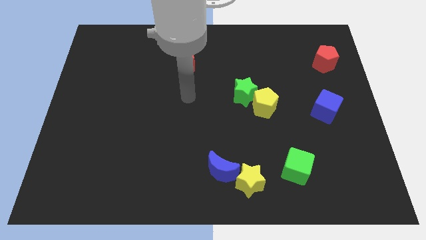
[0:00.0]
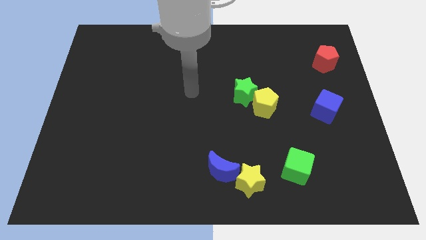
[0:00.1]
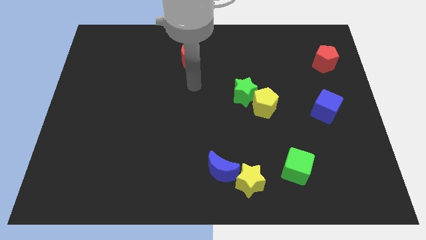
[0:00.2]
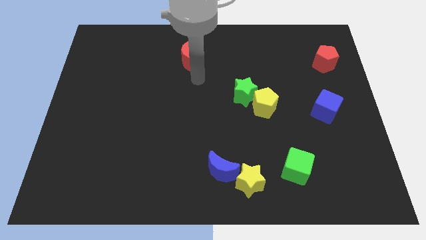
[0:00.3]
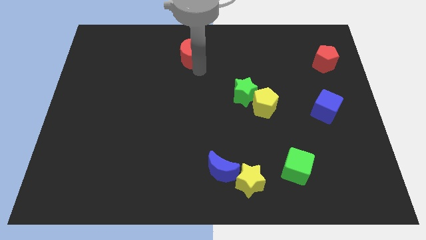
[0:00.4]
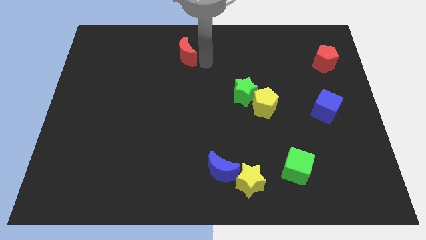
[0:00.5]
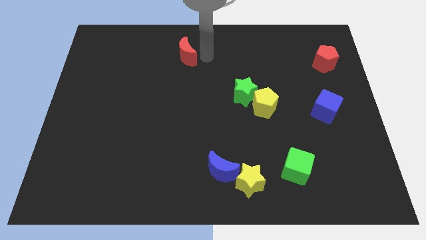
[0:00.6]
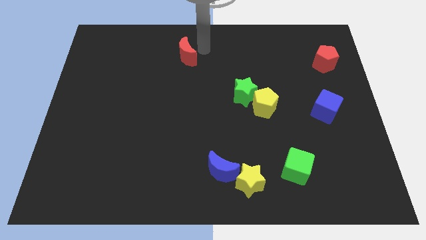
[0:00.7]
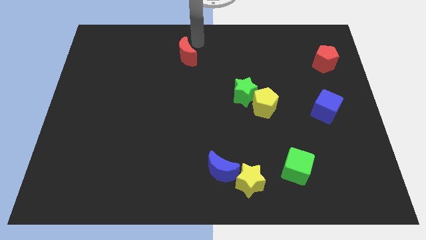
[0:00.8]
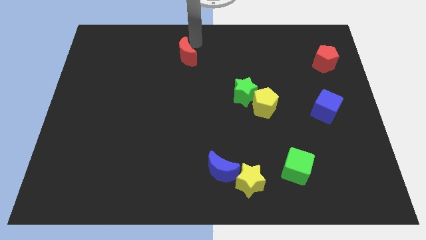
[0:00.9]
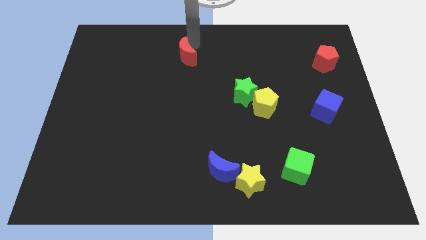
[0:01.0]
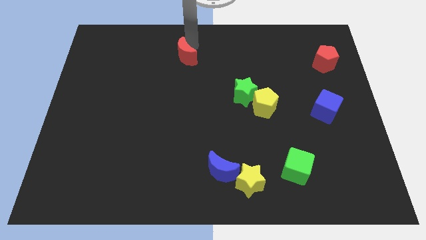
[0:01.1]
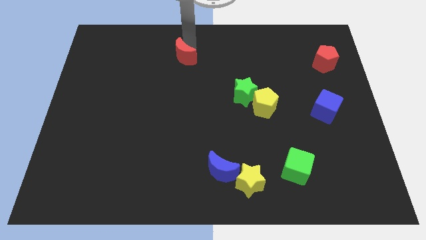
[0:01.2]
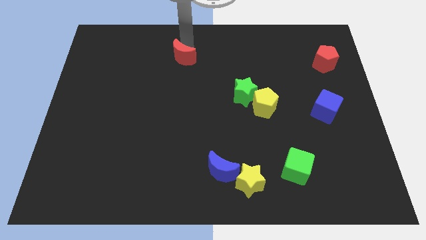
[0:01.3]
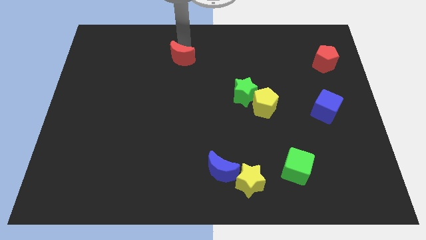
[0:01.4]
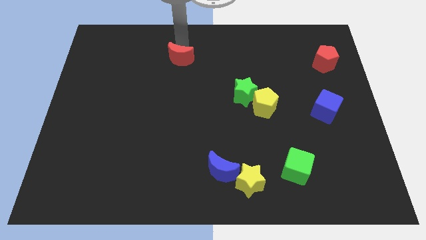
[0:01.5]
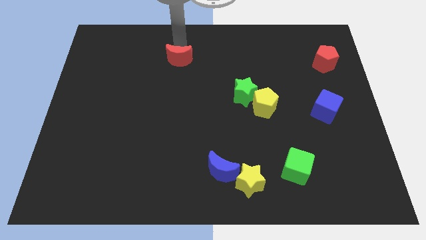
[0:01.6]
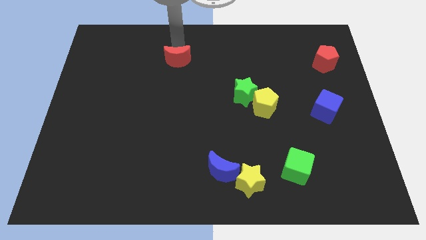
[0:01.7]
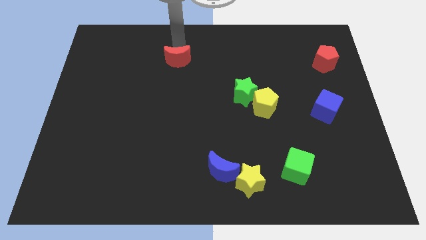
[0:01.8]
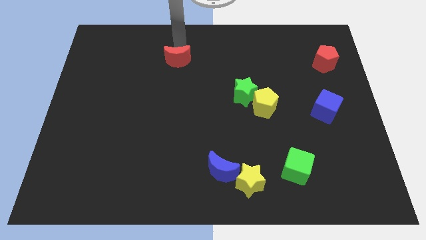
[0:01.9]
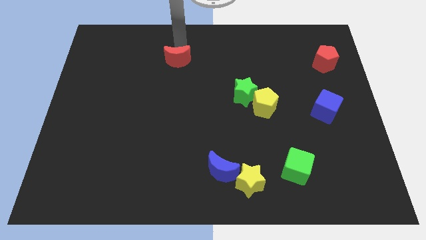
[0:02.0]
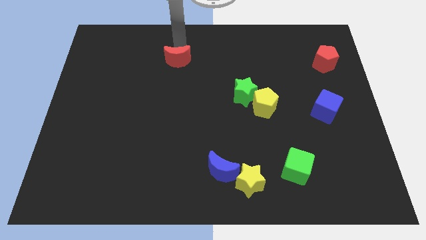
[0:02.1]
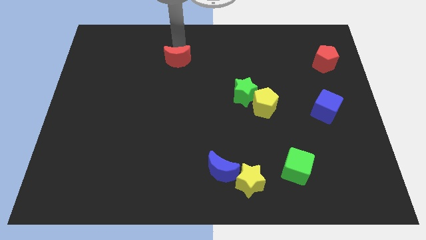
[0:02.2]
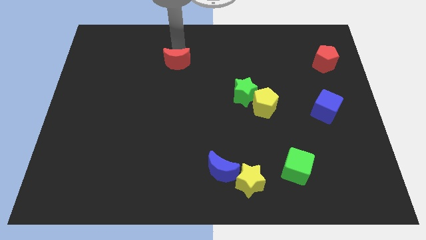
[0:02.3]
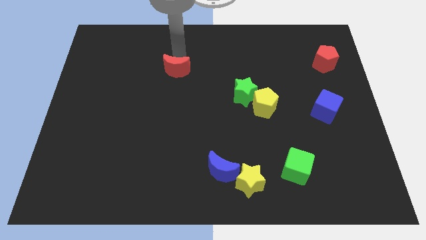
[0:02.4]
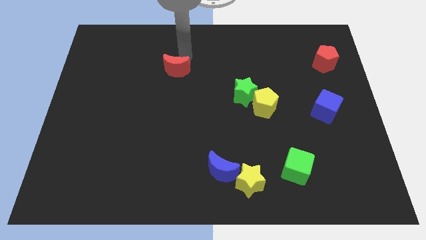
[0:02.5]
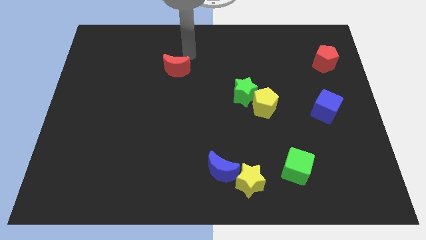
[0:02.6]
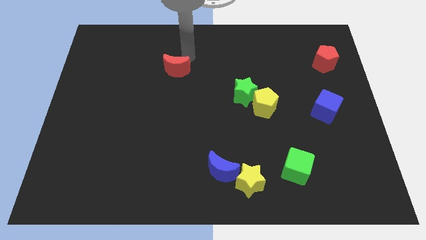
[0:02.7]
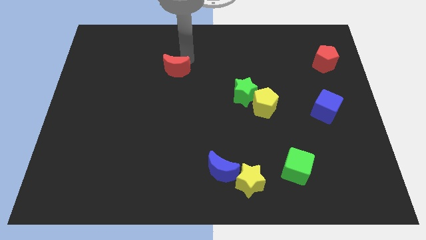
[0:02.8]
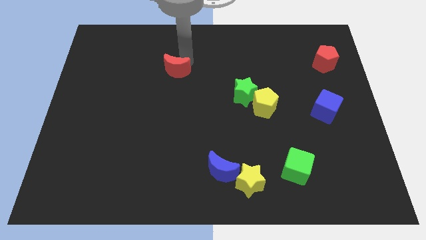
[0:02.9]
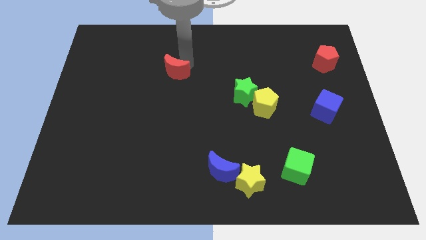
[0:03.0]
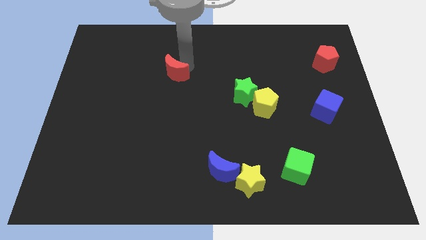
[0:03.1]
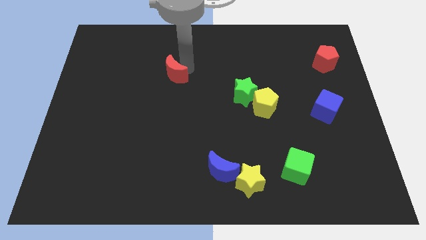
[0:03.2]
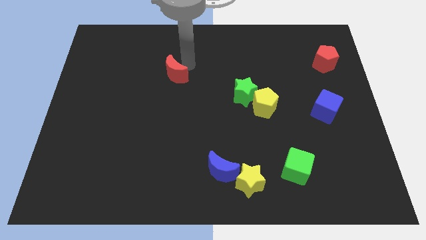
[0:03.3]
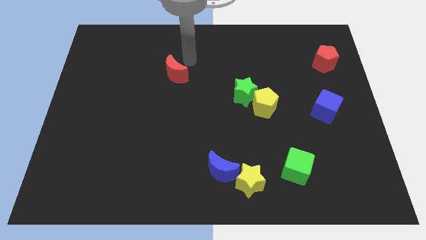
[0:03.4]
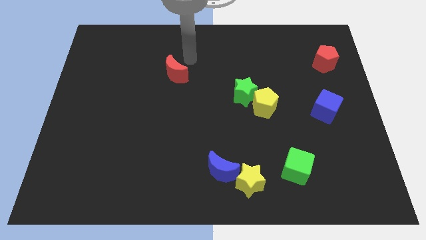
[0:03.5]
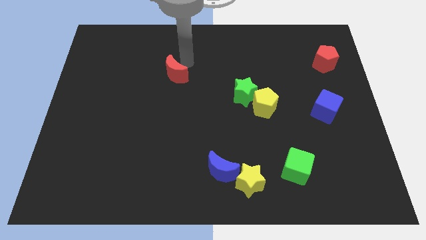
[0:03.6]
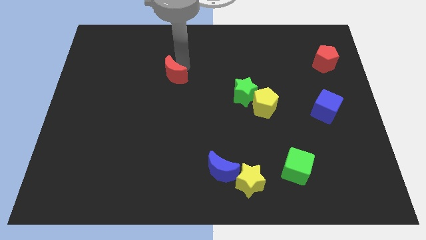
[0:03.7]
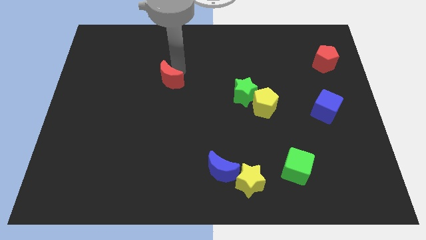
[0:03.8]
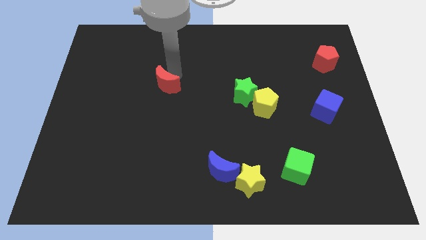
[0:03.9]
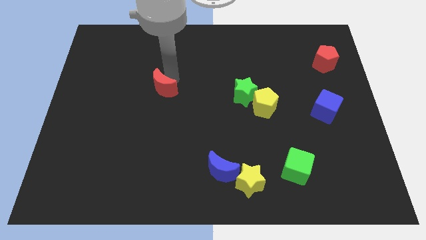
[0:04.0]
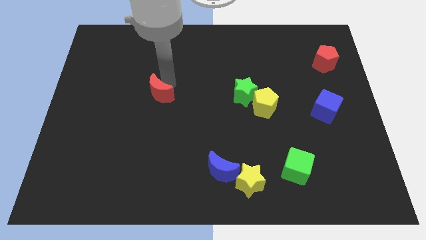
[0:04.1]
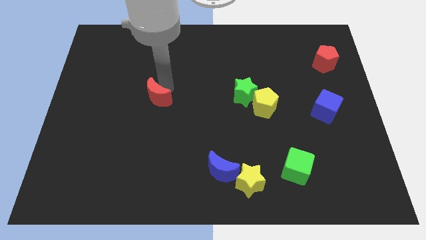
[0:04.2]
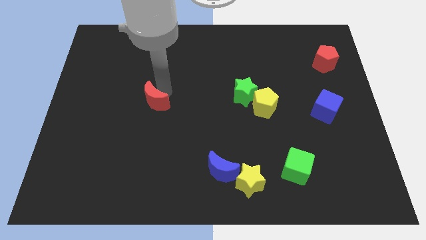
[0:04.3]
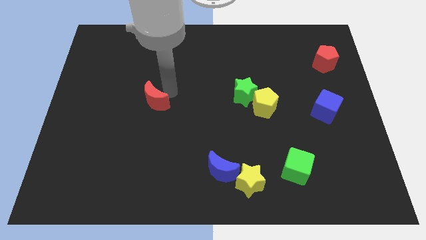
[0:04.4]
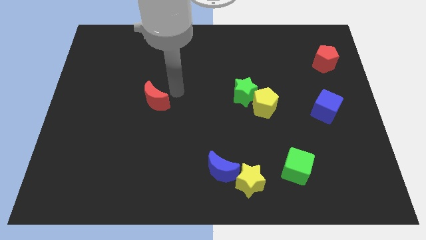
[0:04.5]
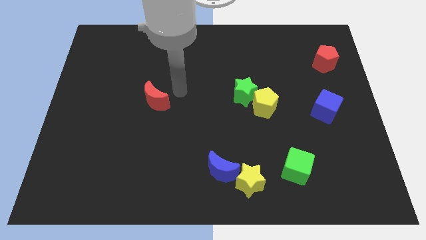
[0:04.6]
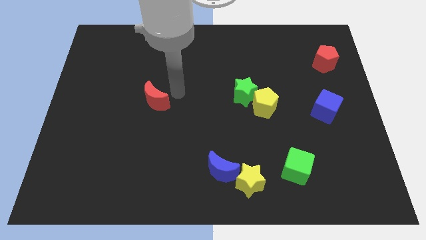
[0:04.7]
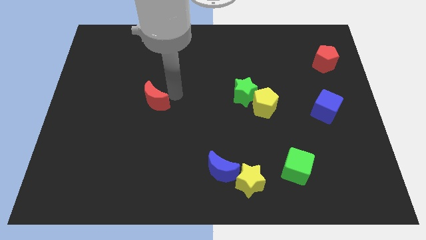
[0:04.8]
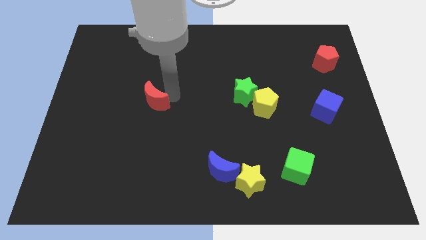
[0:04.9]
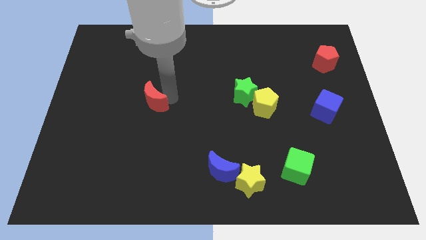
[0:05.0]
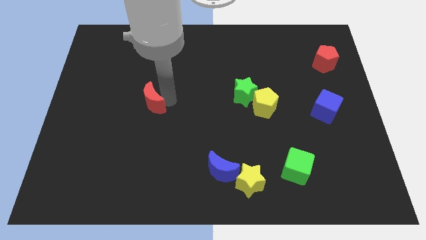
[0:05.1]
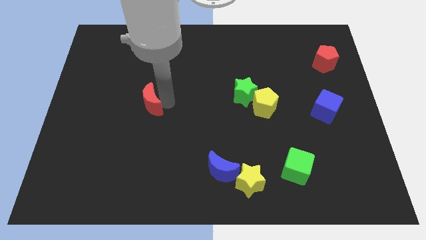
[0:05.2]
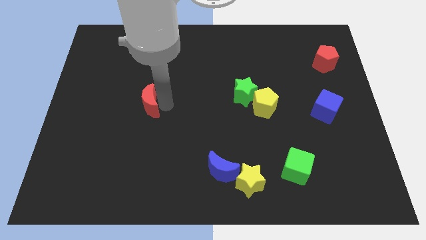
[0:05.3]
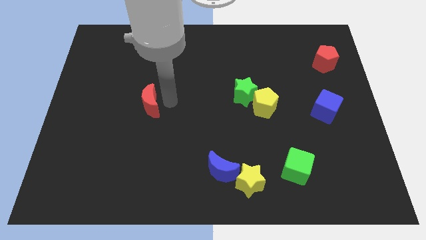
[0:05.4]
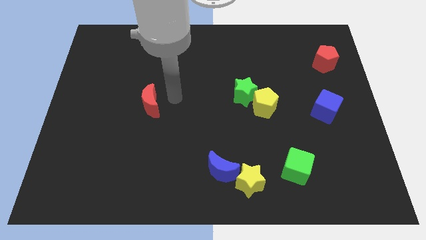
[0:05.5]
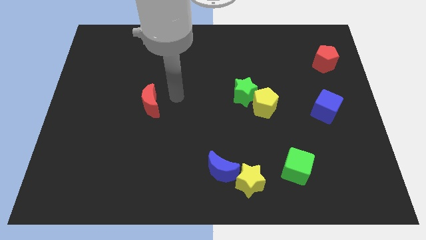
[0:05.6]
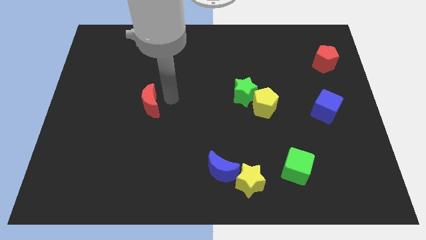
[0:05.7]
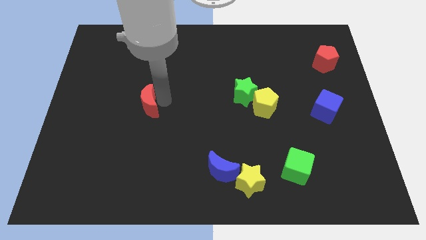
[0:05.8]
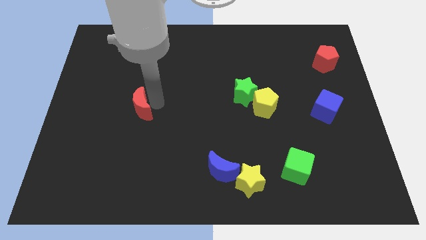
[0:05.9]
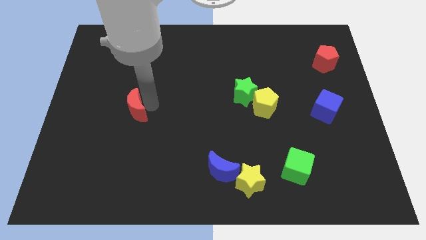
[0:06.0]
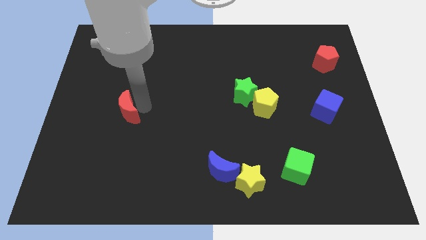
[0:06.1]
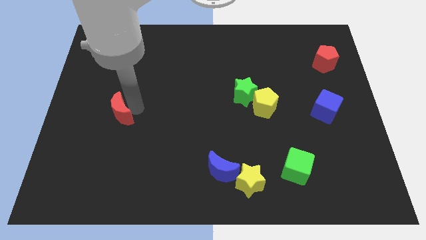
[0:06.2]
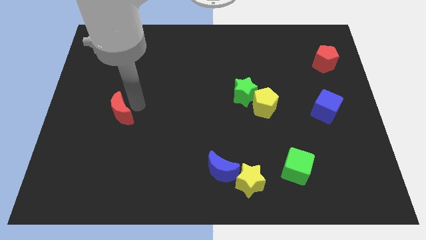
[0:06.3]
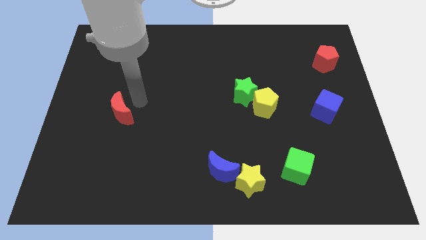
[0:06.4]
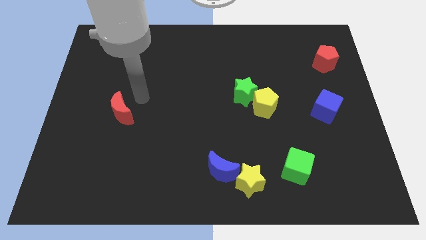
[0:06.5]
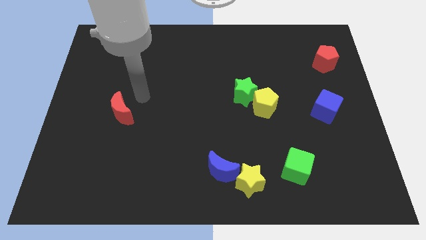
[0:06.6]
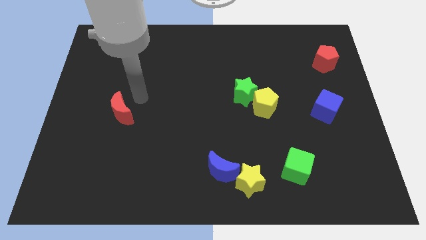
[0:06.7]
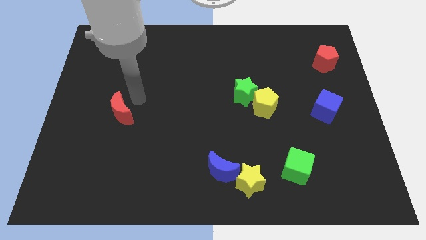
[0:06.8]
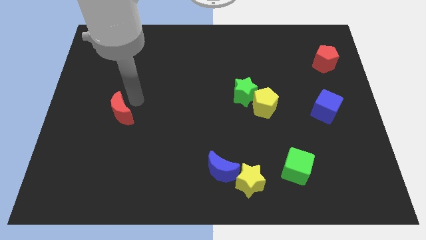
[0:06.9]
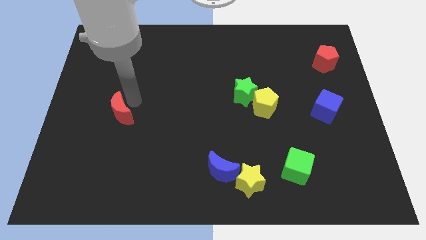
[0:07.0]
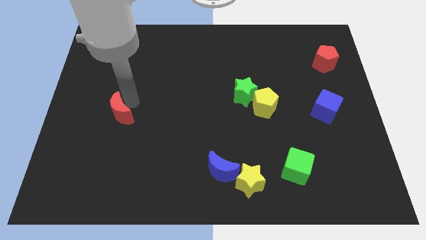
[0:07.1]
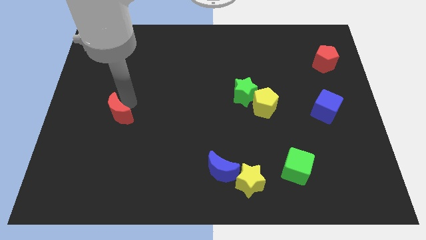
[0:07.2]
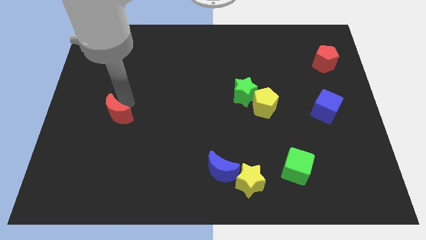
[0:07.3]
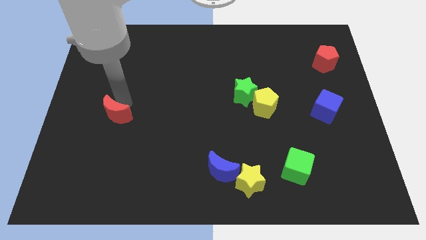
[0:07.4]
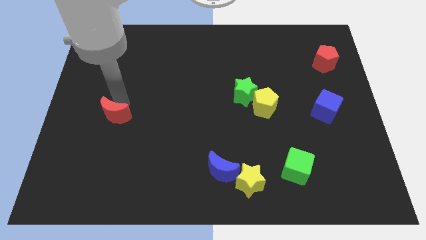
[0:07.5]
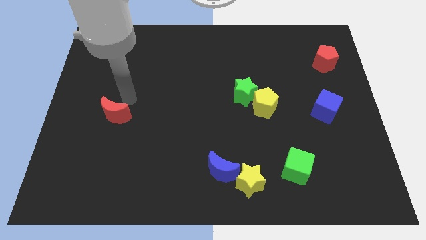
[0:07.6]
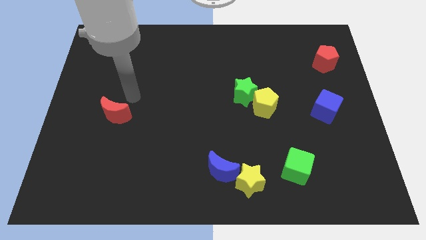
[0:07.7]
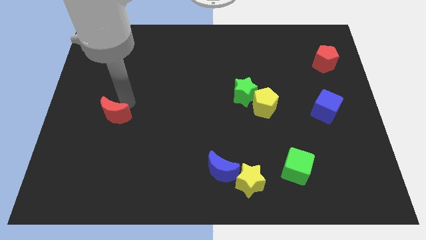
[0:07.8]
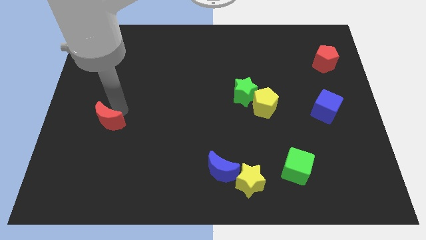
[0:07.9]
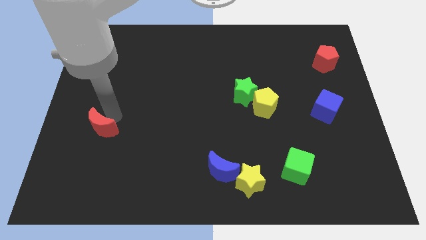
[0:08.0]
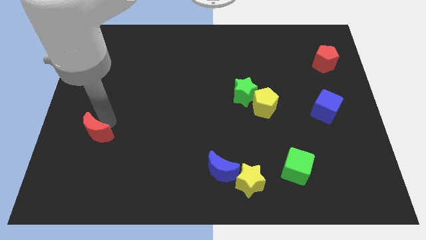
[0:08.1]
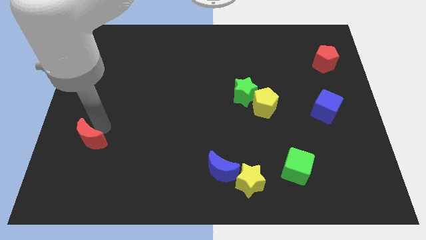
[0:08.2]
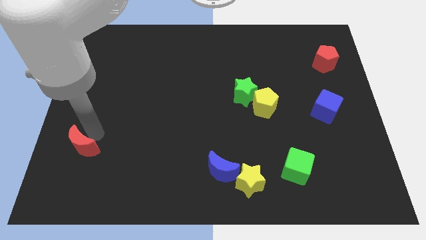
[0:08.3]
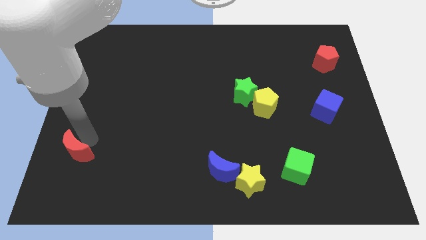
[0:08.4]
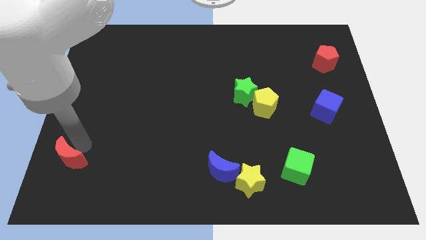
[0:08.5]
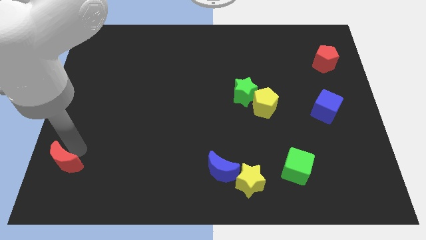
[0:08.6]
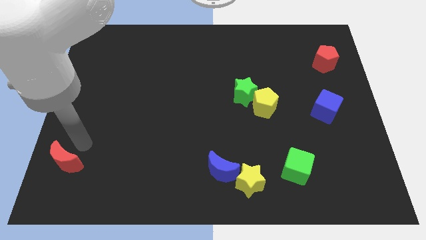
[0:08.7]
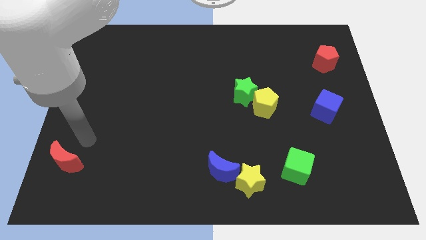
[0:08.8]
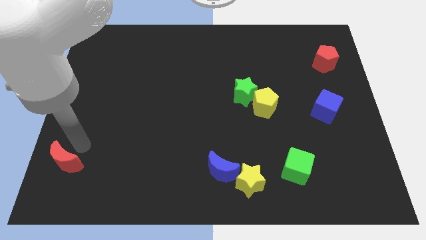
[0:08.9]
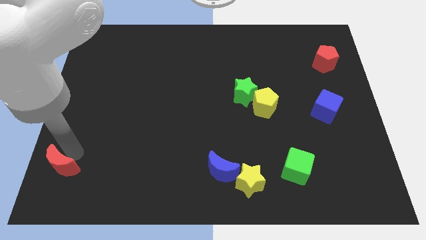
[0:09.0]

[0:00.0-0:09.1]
push the red moon to the bottom left of the board
